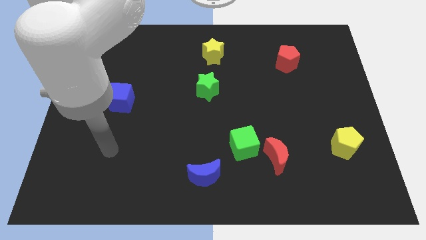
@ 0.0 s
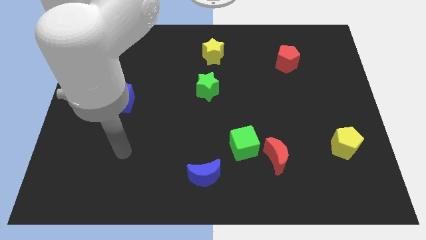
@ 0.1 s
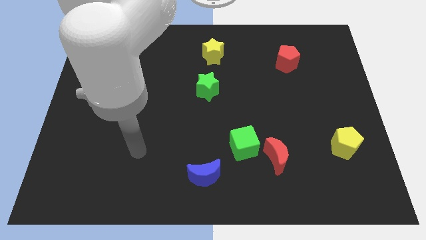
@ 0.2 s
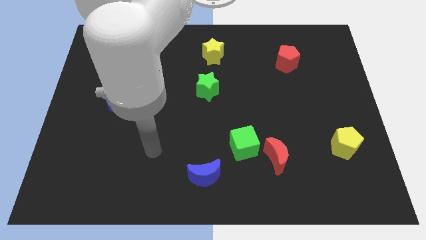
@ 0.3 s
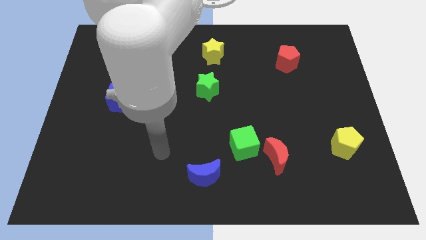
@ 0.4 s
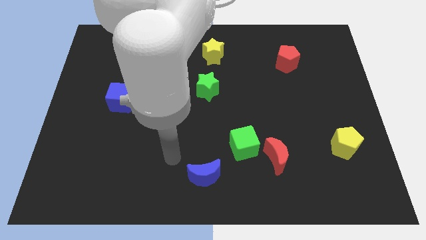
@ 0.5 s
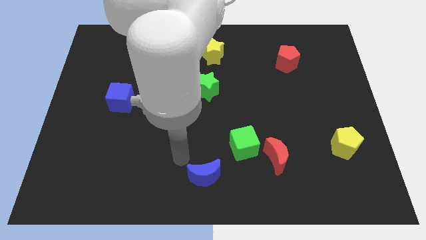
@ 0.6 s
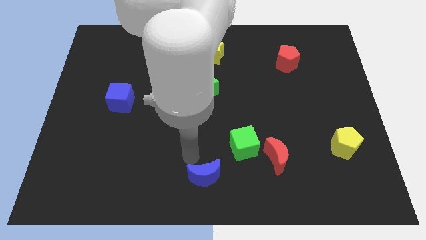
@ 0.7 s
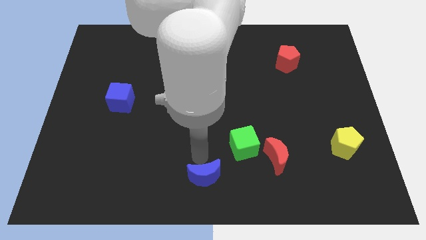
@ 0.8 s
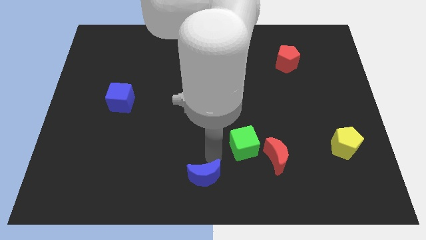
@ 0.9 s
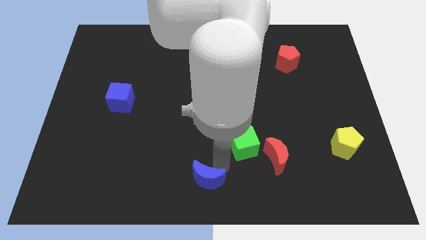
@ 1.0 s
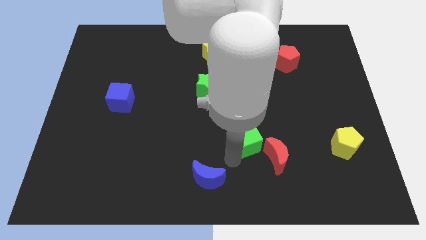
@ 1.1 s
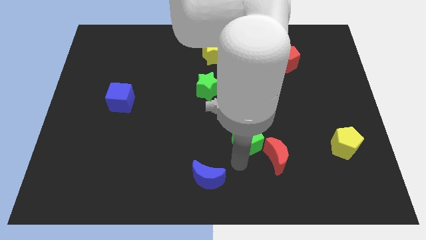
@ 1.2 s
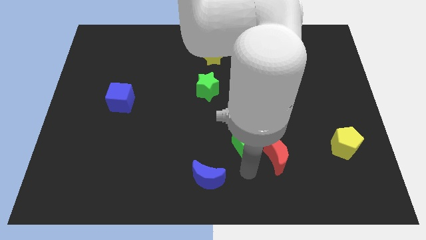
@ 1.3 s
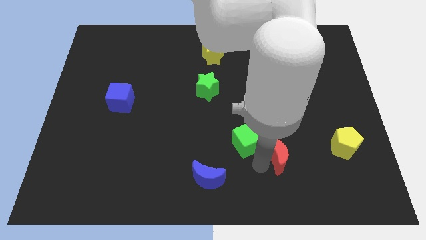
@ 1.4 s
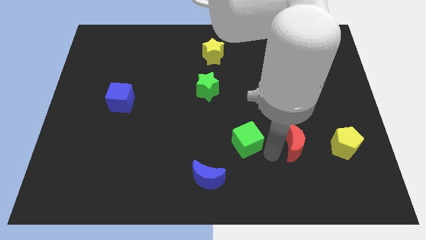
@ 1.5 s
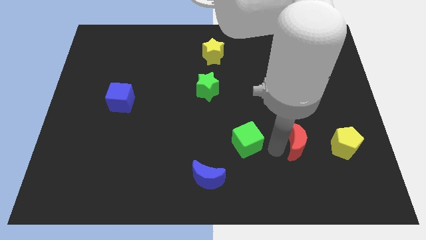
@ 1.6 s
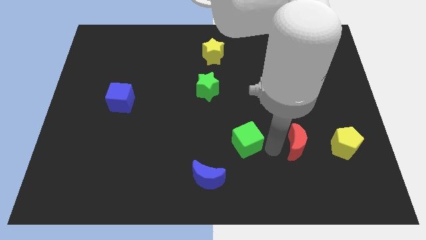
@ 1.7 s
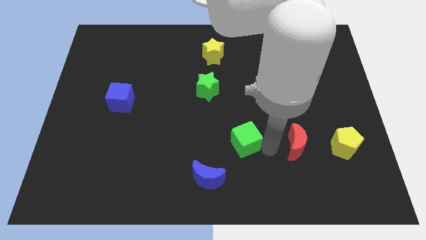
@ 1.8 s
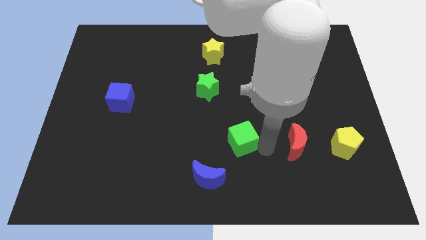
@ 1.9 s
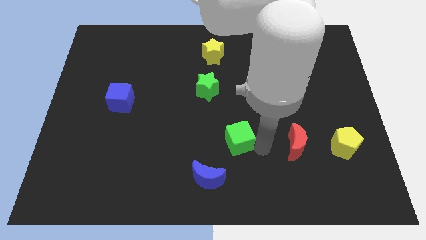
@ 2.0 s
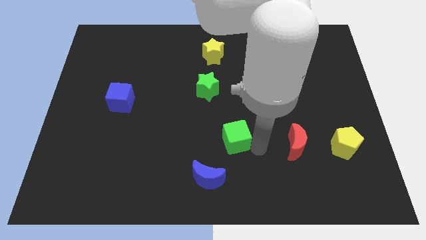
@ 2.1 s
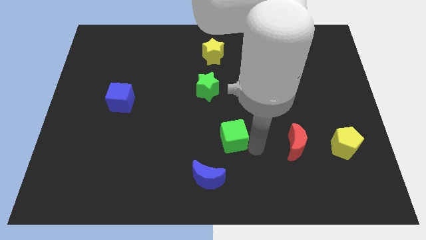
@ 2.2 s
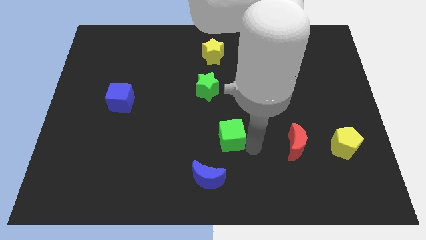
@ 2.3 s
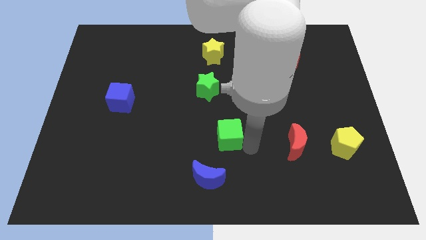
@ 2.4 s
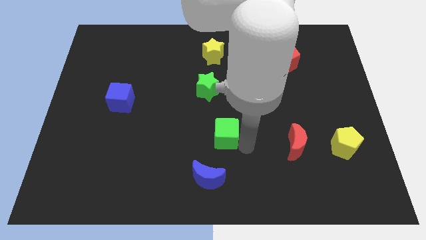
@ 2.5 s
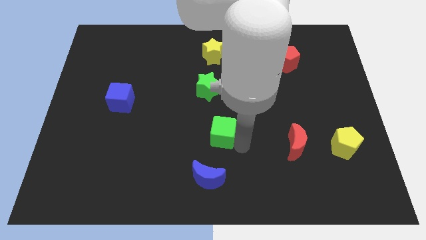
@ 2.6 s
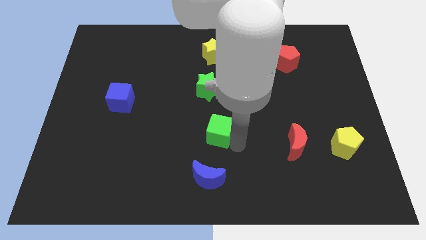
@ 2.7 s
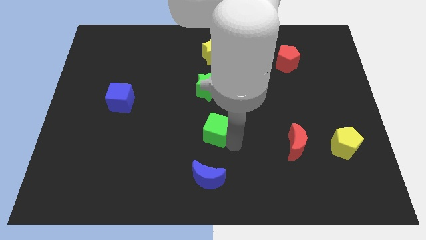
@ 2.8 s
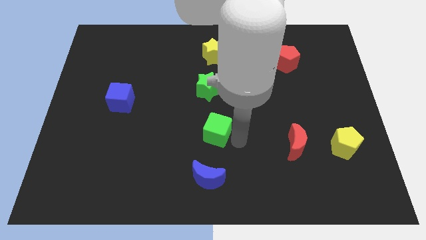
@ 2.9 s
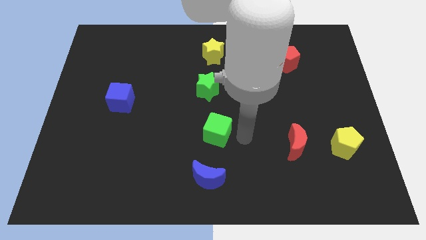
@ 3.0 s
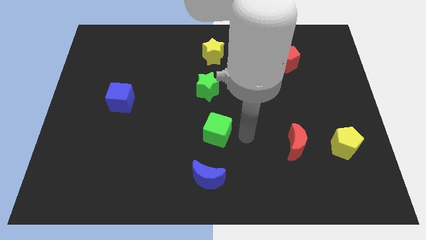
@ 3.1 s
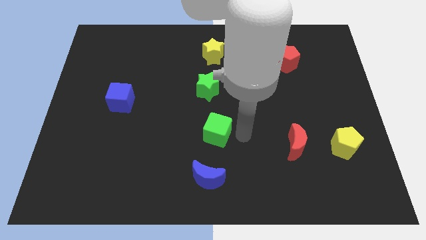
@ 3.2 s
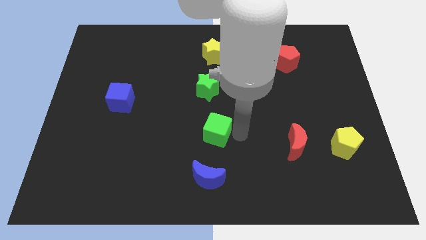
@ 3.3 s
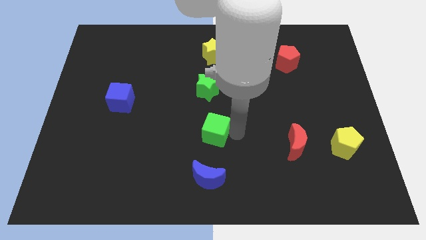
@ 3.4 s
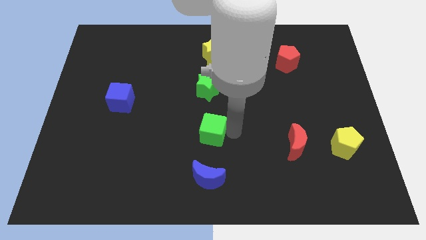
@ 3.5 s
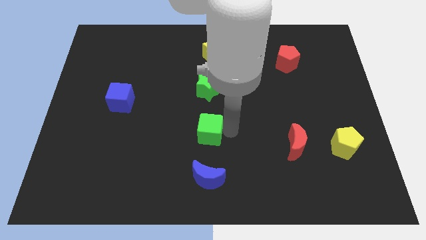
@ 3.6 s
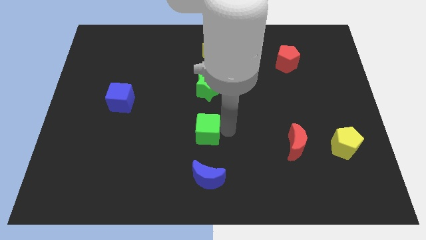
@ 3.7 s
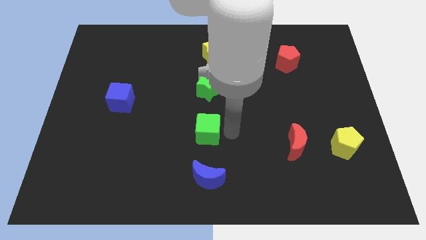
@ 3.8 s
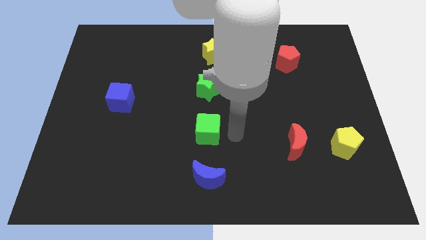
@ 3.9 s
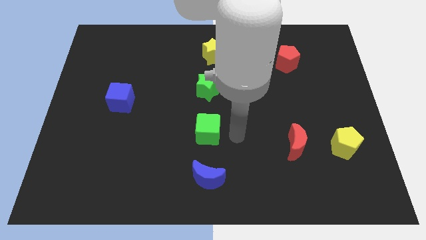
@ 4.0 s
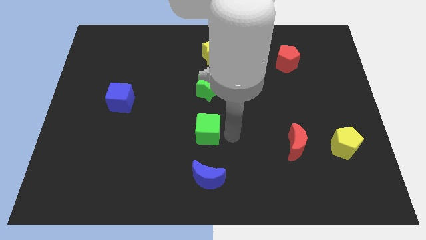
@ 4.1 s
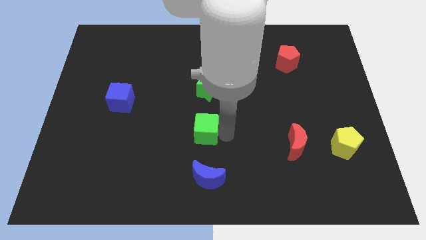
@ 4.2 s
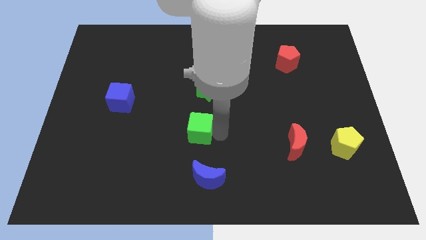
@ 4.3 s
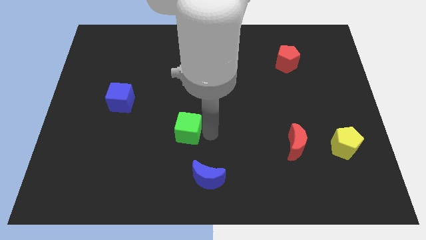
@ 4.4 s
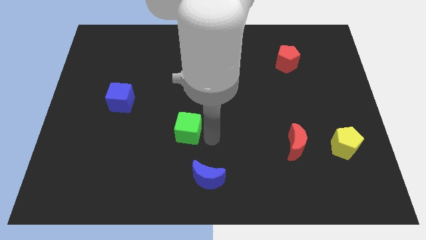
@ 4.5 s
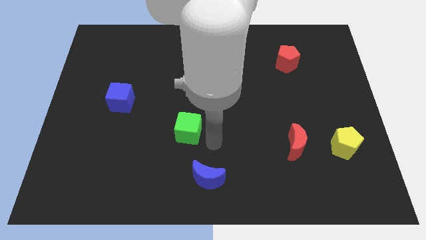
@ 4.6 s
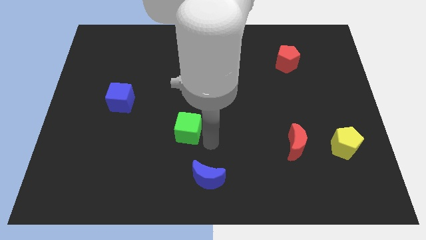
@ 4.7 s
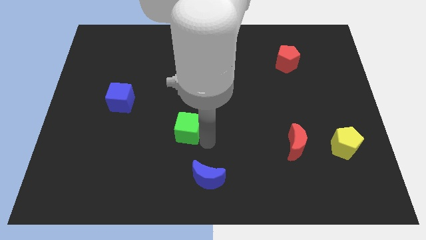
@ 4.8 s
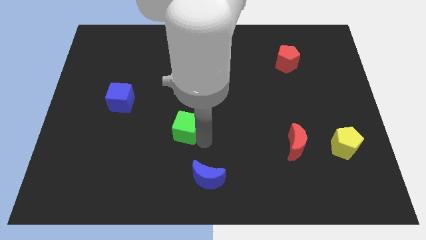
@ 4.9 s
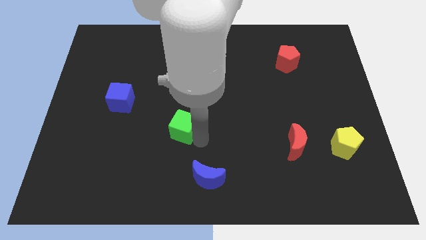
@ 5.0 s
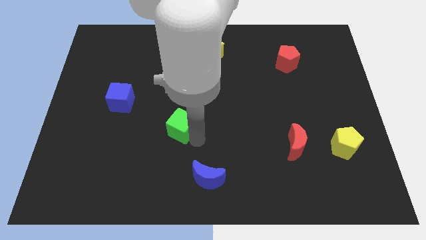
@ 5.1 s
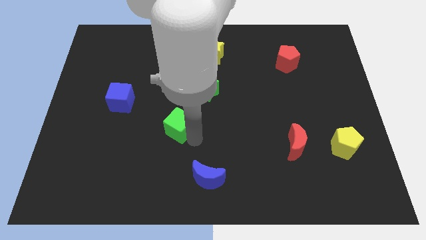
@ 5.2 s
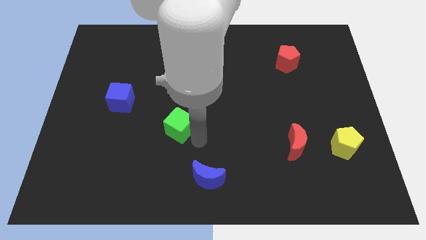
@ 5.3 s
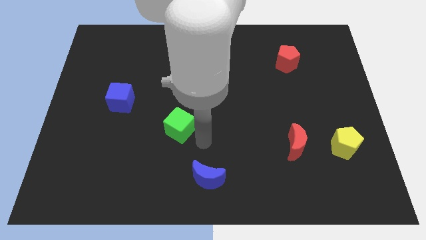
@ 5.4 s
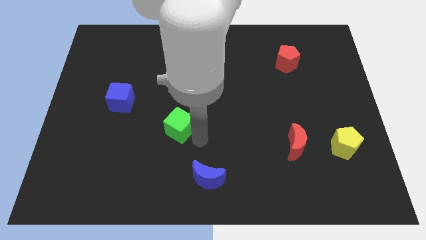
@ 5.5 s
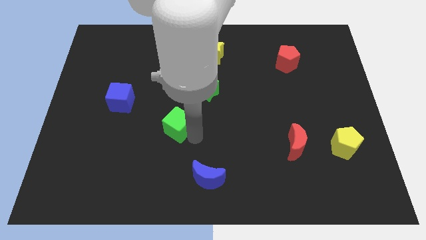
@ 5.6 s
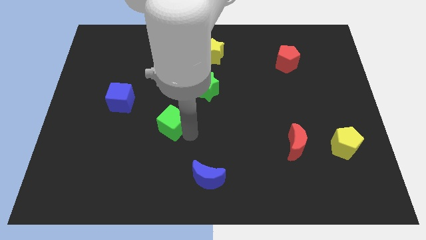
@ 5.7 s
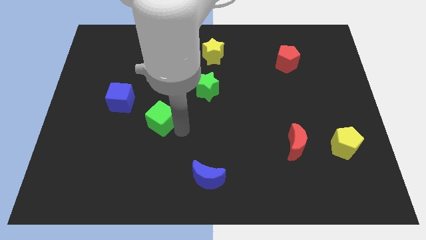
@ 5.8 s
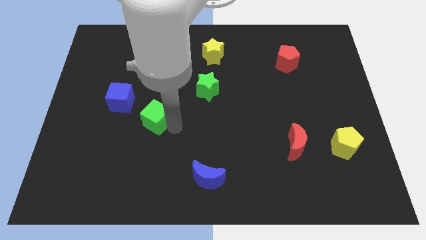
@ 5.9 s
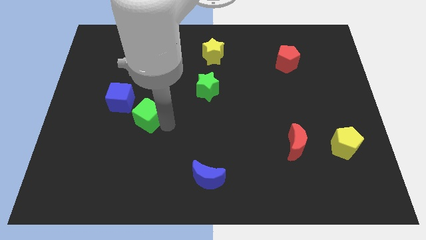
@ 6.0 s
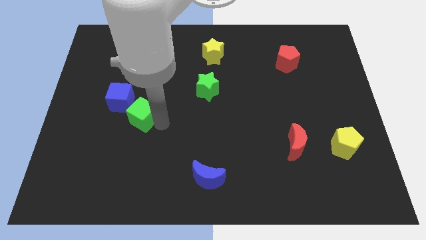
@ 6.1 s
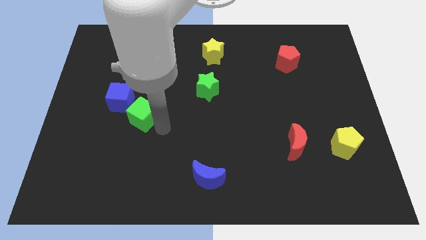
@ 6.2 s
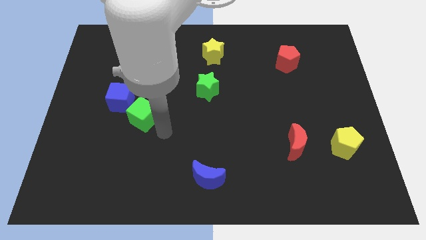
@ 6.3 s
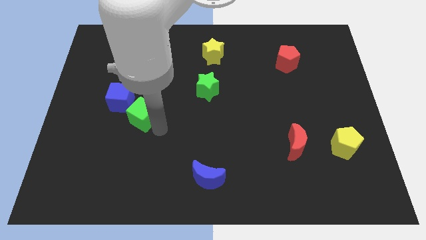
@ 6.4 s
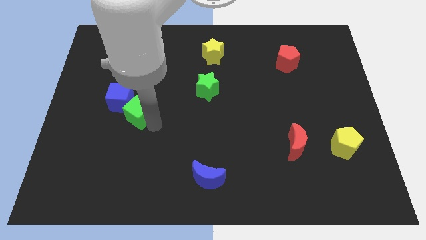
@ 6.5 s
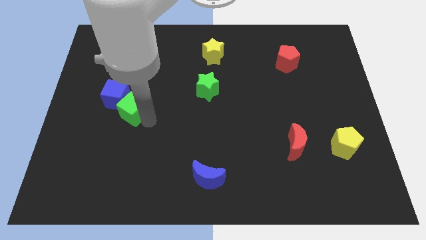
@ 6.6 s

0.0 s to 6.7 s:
slide the green cube close to the blue cube
